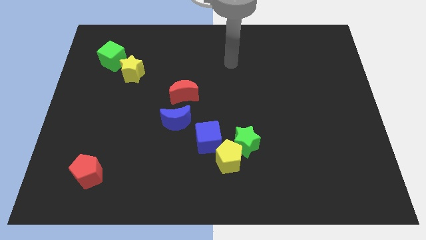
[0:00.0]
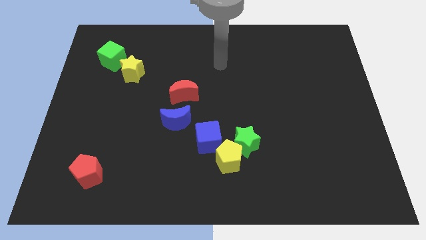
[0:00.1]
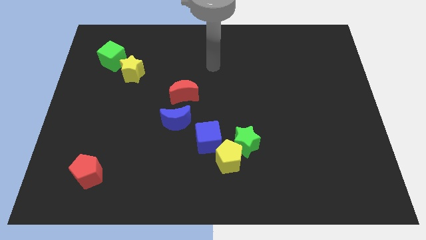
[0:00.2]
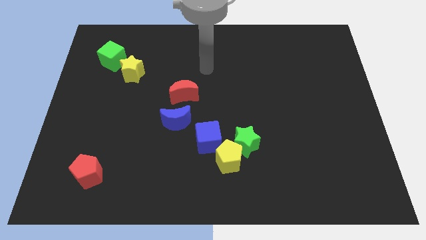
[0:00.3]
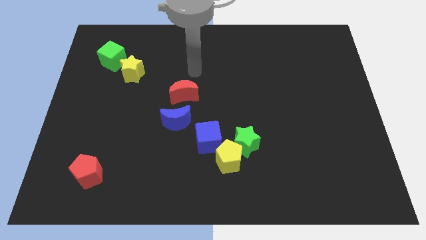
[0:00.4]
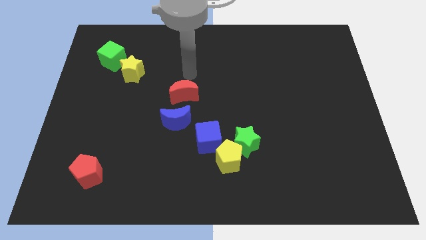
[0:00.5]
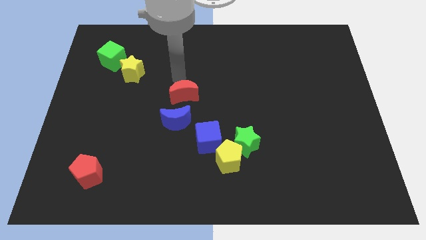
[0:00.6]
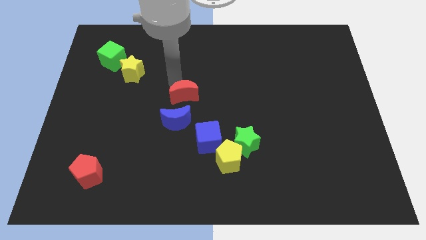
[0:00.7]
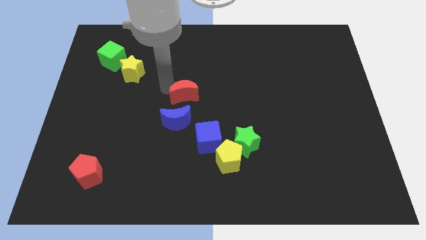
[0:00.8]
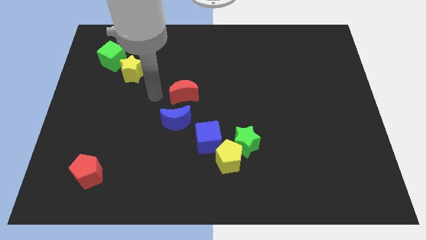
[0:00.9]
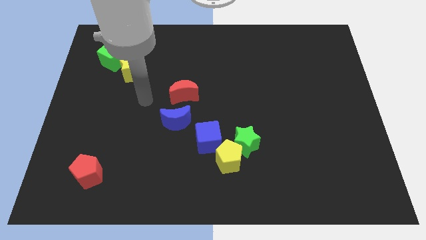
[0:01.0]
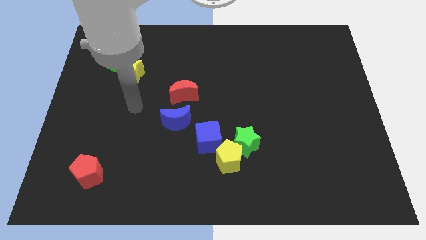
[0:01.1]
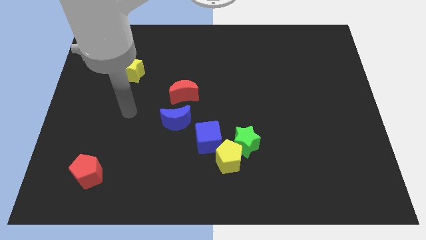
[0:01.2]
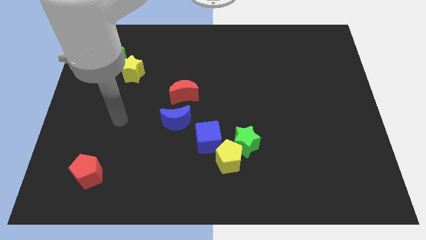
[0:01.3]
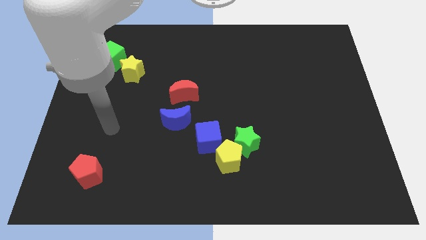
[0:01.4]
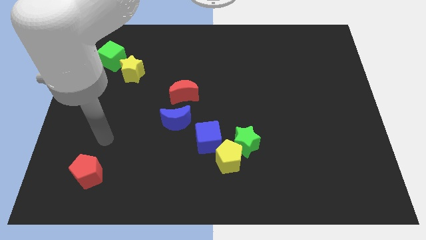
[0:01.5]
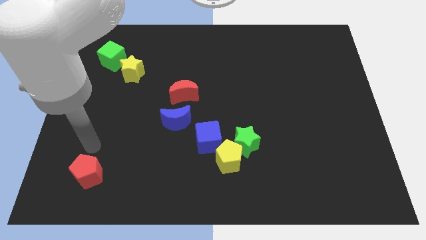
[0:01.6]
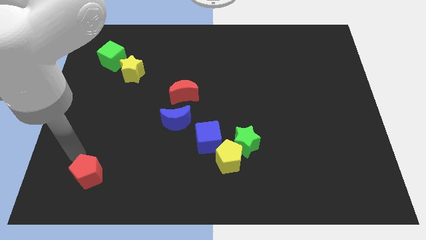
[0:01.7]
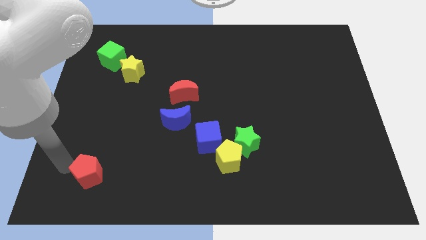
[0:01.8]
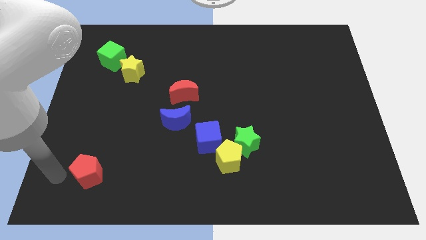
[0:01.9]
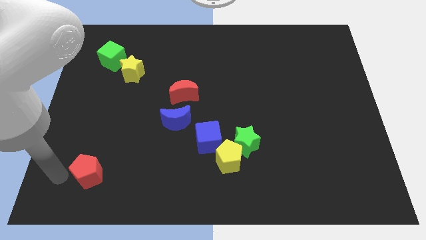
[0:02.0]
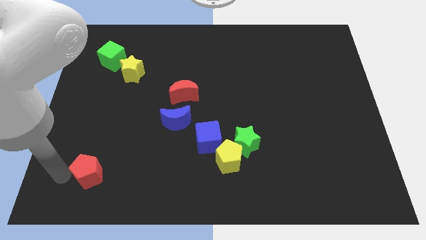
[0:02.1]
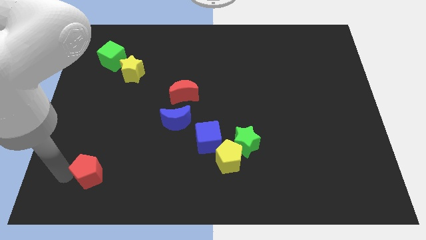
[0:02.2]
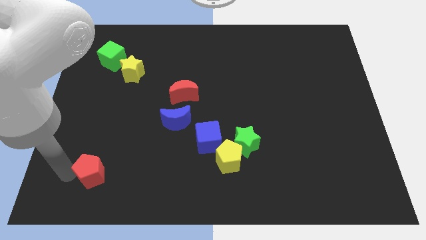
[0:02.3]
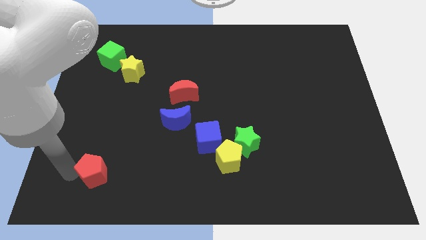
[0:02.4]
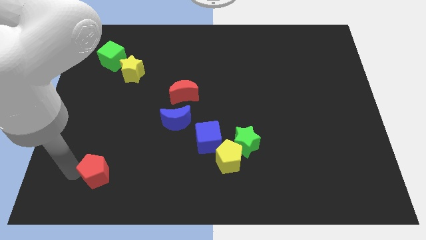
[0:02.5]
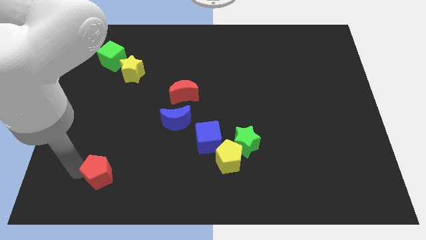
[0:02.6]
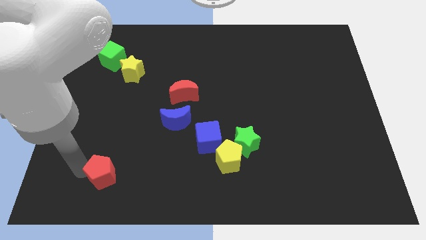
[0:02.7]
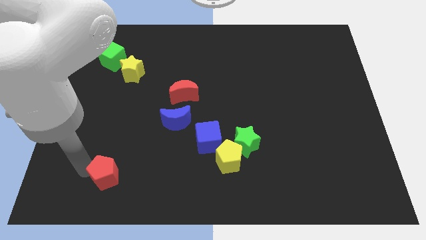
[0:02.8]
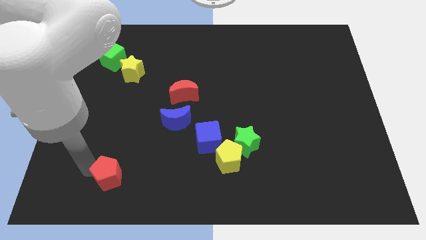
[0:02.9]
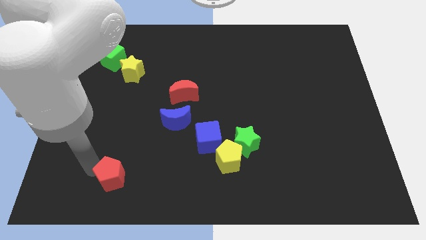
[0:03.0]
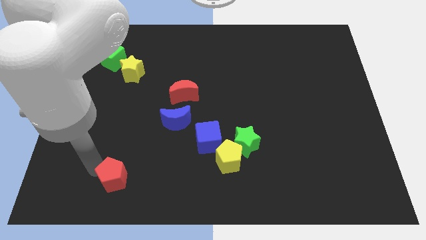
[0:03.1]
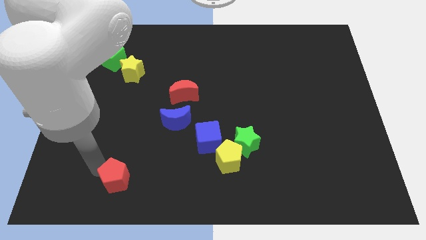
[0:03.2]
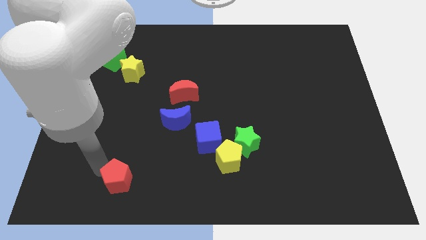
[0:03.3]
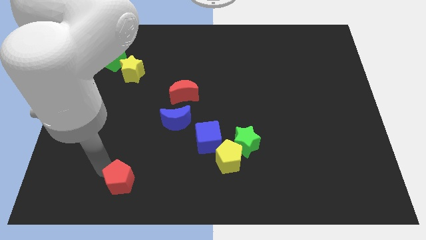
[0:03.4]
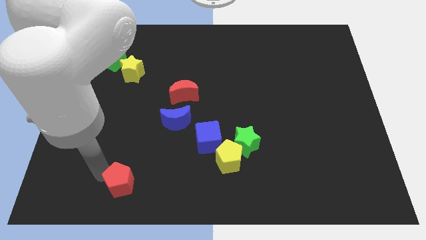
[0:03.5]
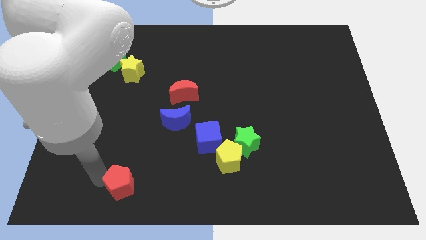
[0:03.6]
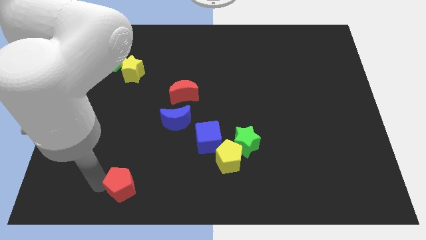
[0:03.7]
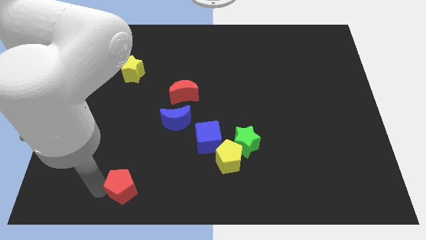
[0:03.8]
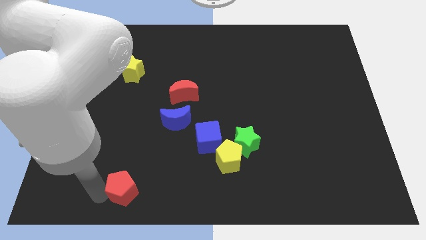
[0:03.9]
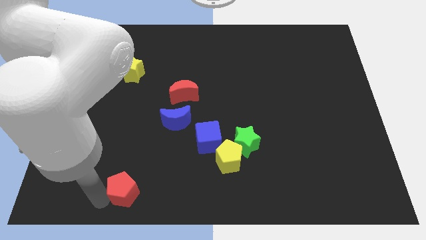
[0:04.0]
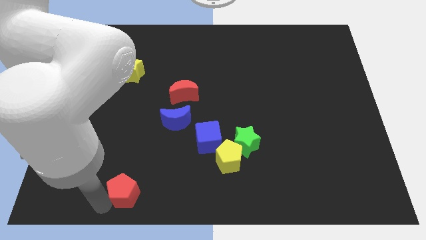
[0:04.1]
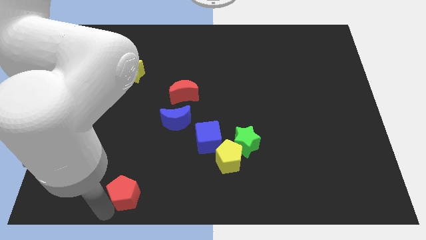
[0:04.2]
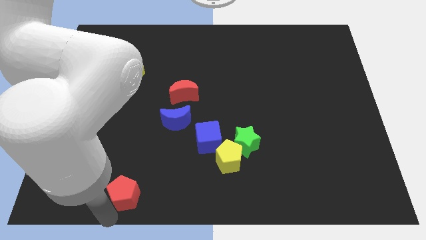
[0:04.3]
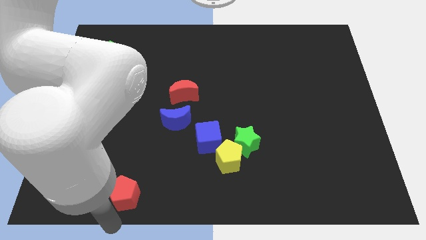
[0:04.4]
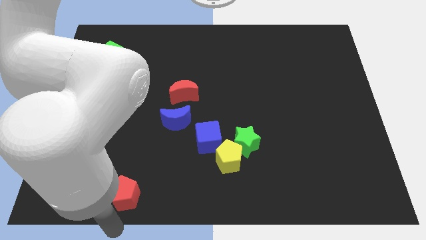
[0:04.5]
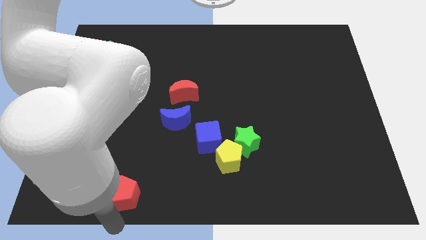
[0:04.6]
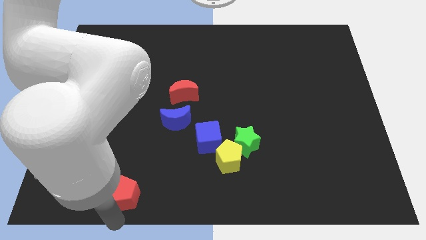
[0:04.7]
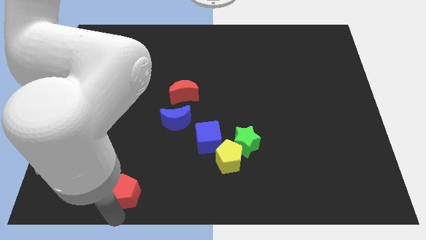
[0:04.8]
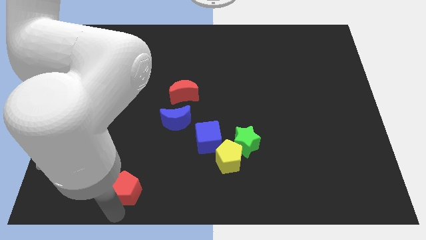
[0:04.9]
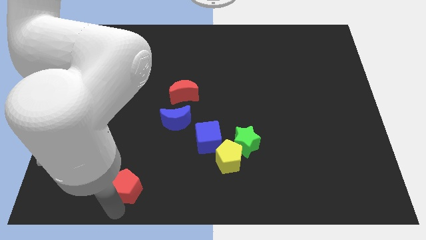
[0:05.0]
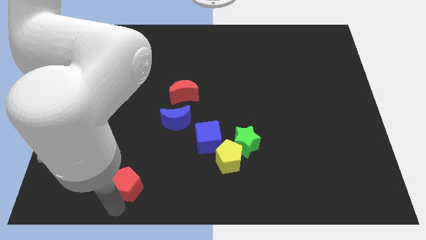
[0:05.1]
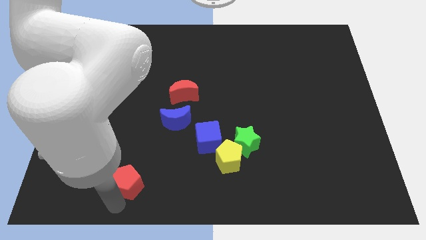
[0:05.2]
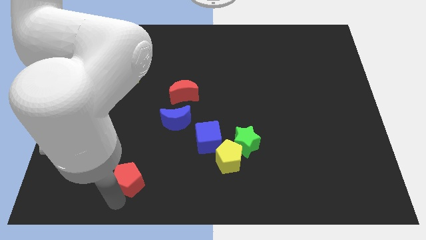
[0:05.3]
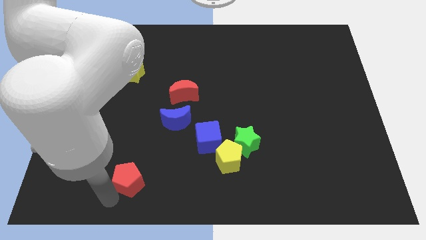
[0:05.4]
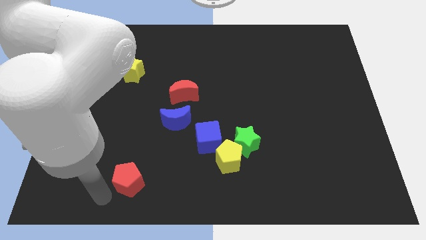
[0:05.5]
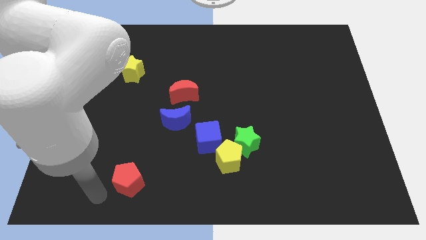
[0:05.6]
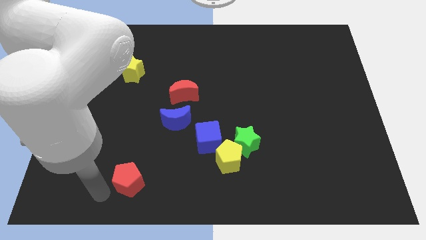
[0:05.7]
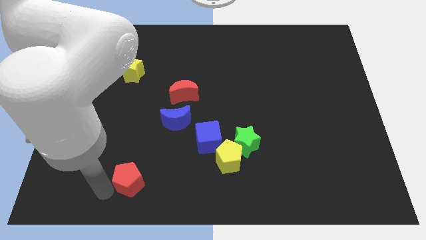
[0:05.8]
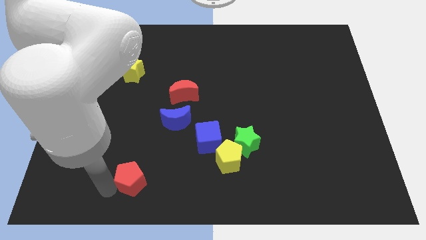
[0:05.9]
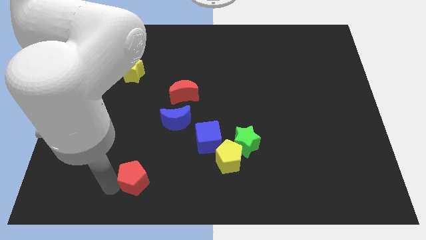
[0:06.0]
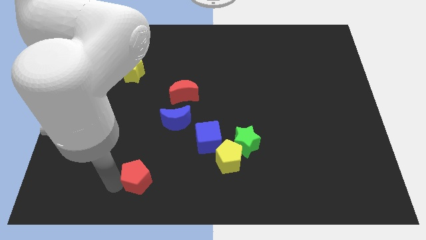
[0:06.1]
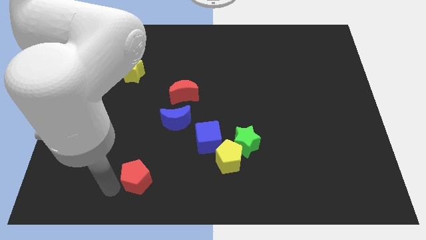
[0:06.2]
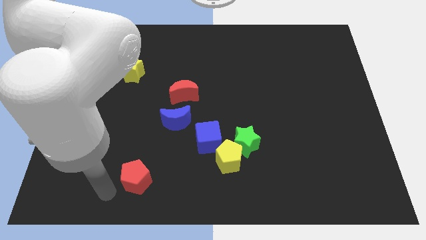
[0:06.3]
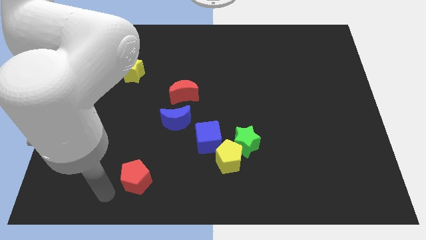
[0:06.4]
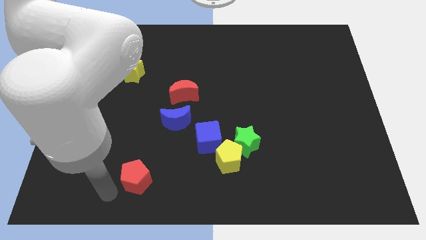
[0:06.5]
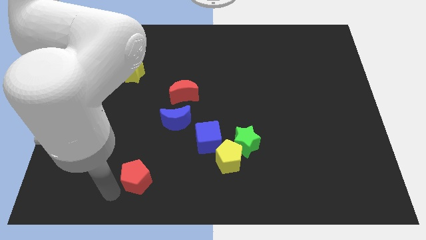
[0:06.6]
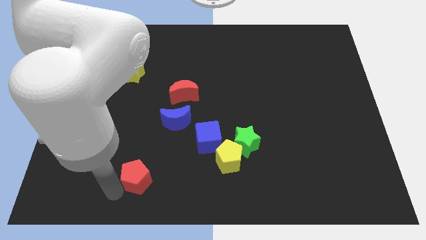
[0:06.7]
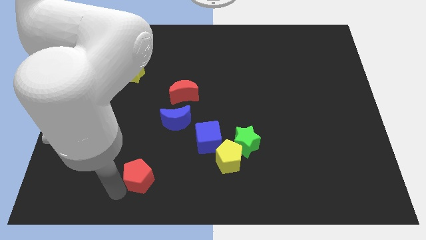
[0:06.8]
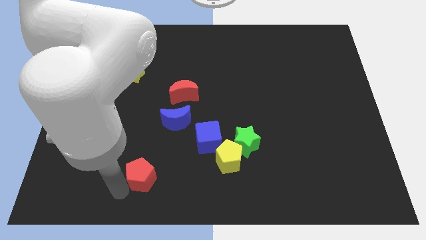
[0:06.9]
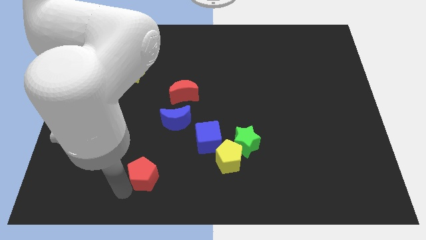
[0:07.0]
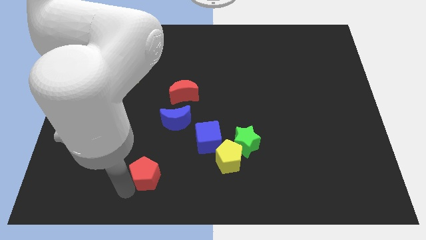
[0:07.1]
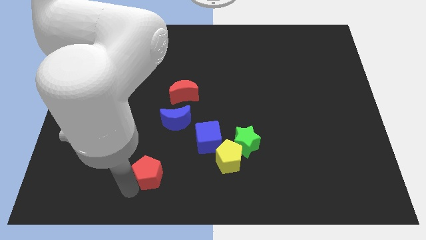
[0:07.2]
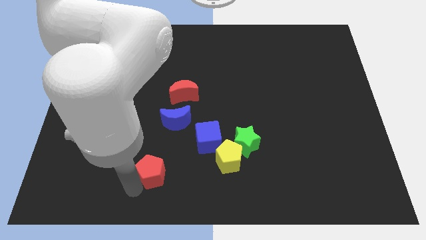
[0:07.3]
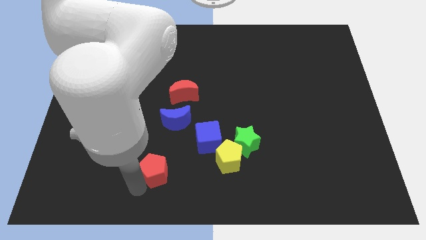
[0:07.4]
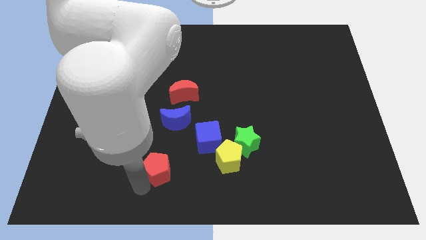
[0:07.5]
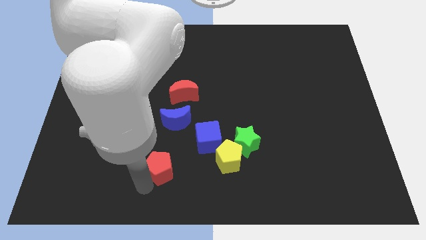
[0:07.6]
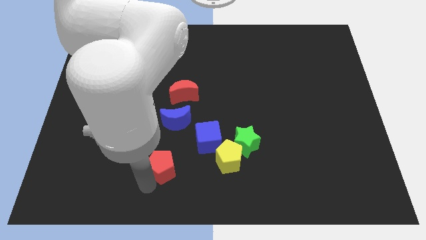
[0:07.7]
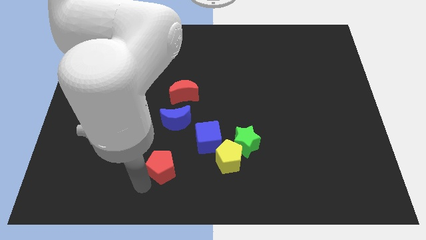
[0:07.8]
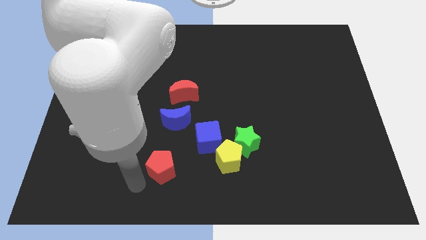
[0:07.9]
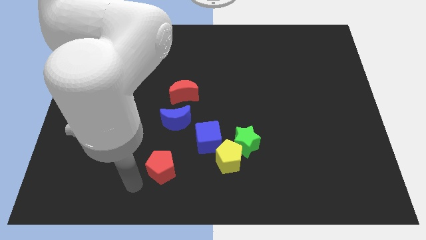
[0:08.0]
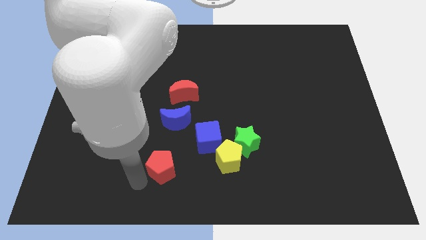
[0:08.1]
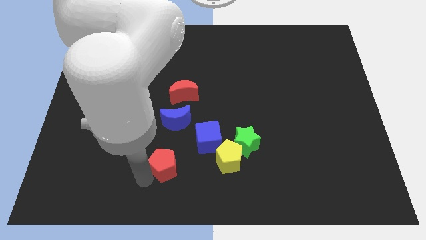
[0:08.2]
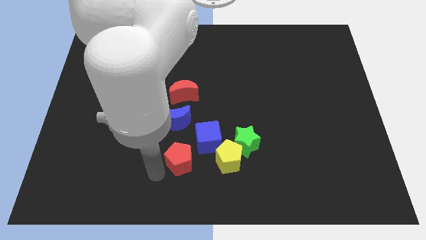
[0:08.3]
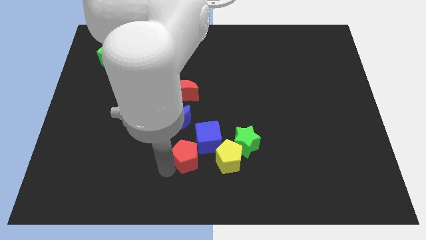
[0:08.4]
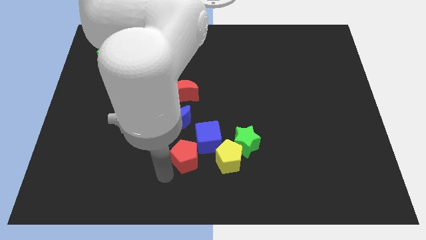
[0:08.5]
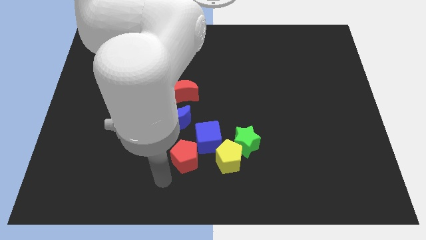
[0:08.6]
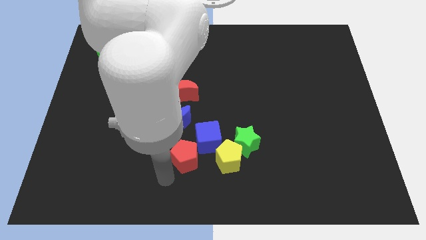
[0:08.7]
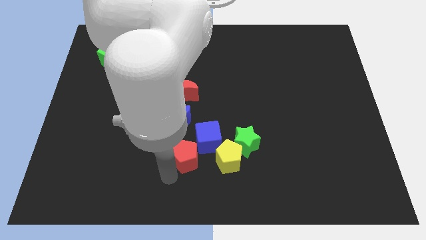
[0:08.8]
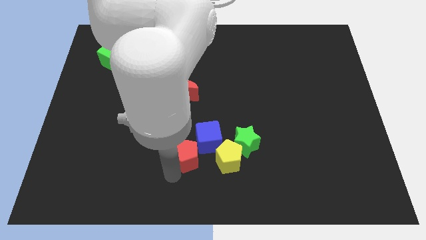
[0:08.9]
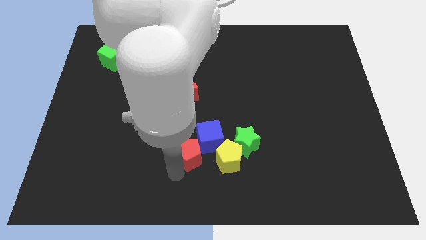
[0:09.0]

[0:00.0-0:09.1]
move the red pentagon towards the blue cube
